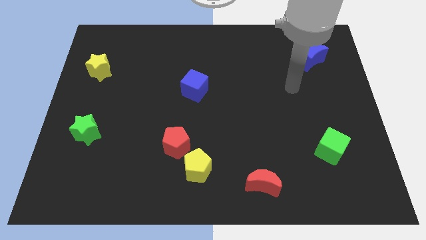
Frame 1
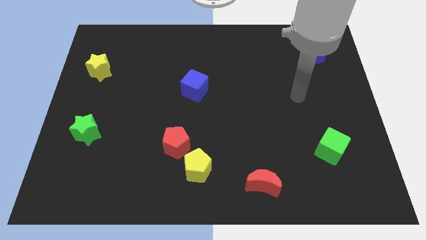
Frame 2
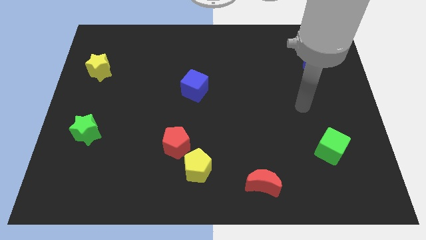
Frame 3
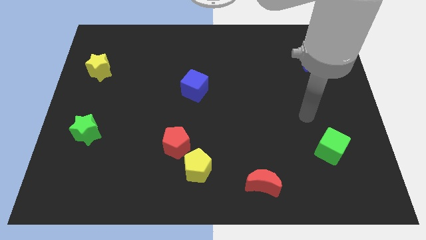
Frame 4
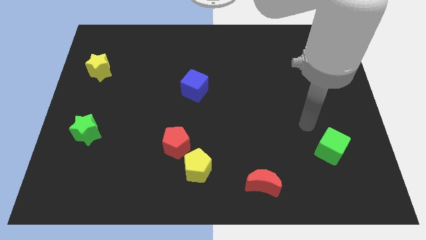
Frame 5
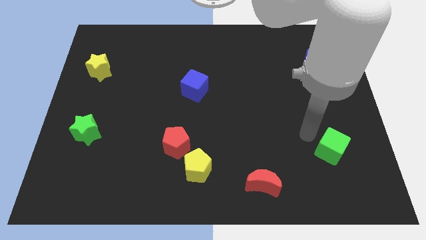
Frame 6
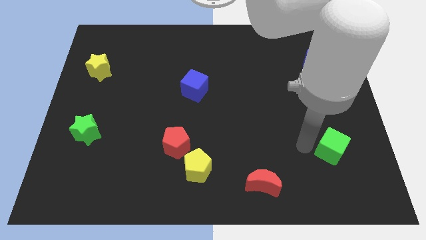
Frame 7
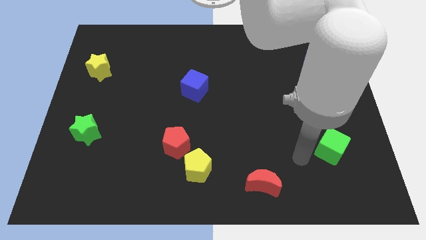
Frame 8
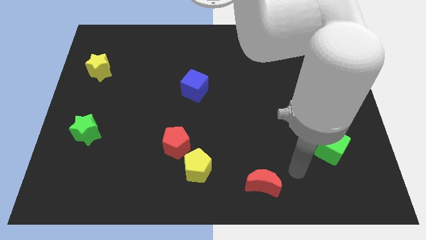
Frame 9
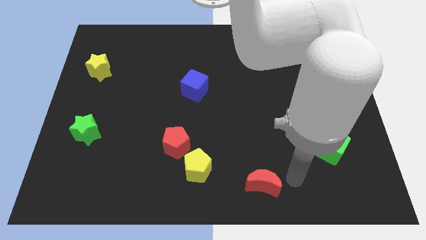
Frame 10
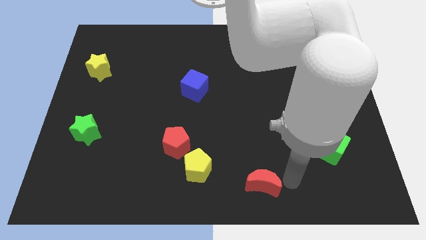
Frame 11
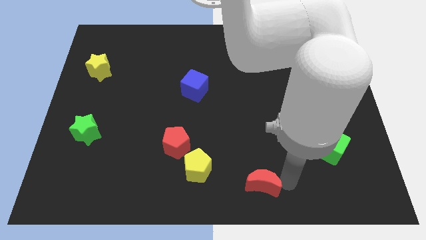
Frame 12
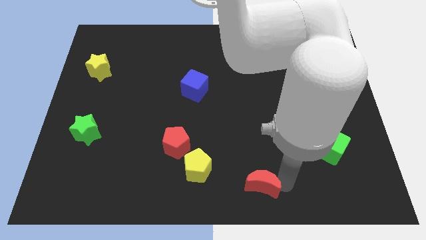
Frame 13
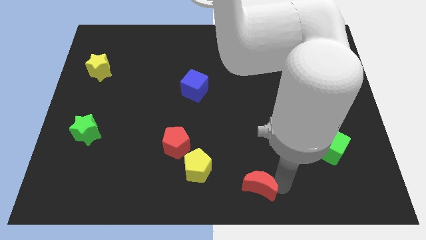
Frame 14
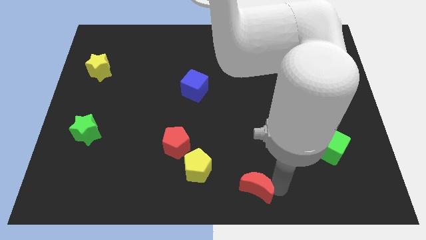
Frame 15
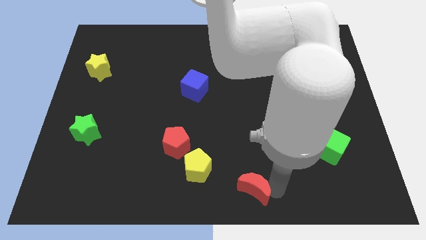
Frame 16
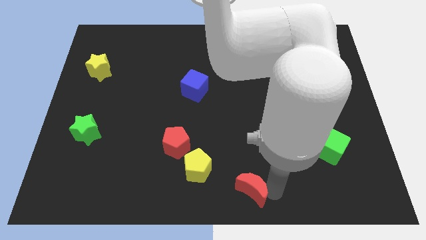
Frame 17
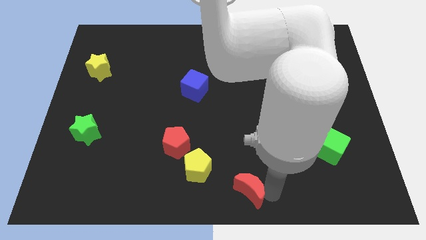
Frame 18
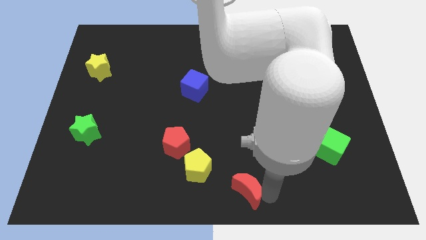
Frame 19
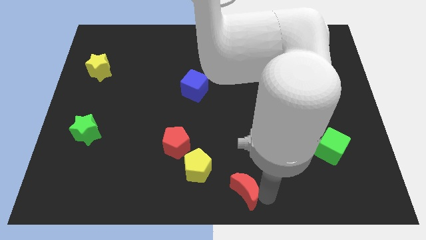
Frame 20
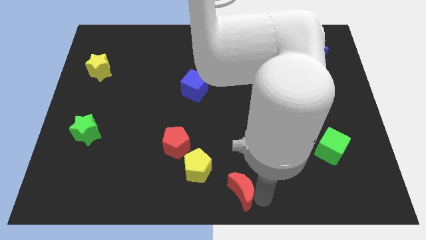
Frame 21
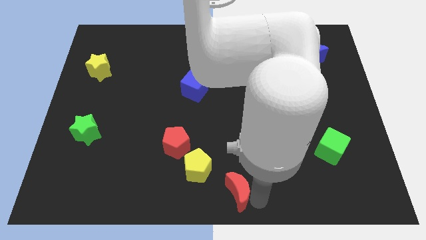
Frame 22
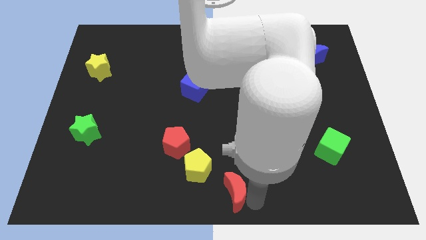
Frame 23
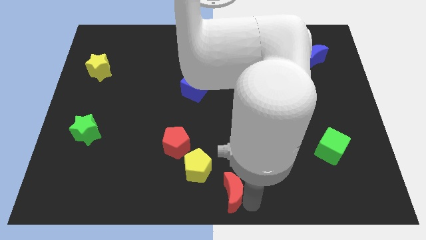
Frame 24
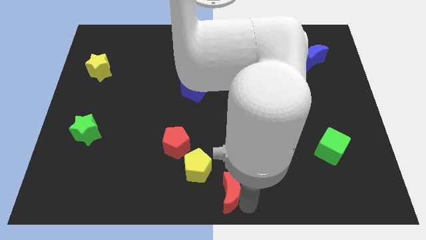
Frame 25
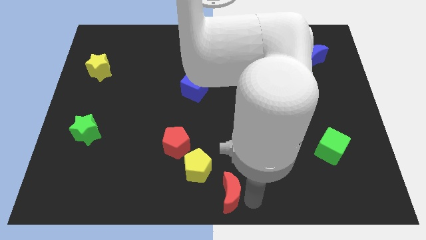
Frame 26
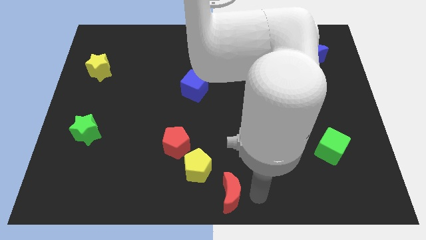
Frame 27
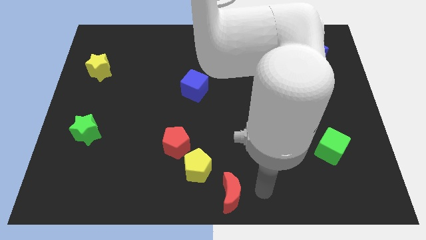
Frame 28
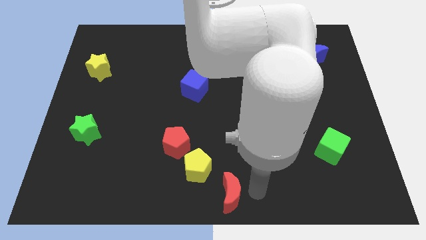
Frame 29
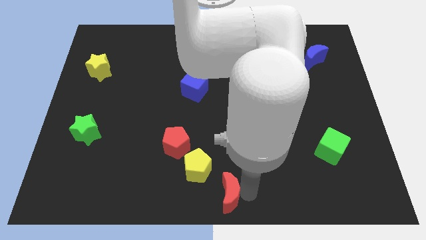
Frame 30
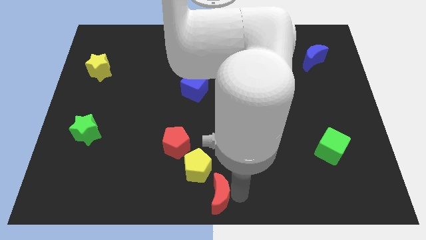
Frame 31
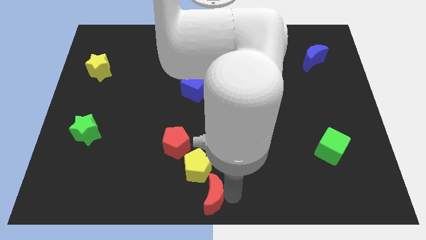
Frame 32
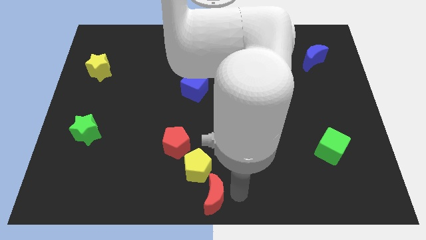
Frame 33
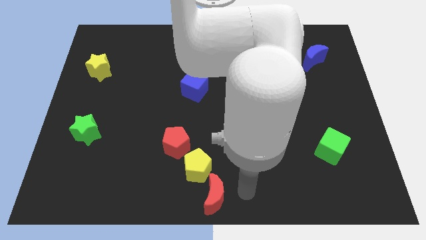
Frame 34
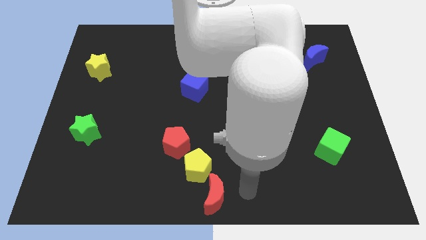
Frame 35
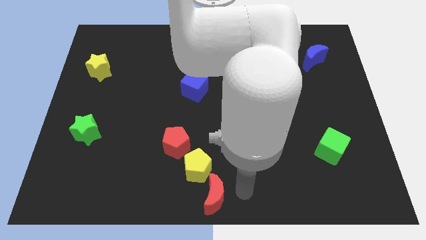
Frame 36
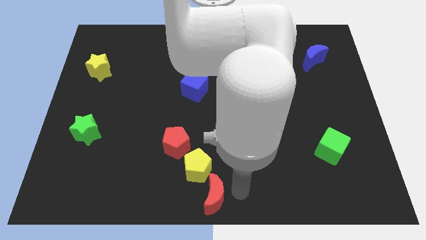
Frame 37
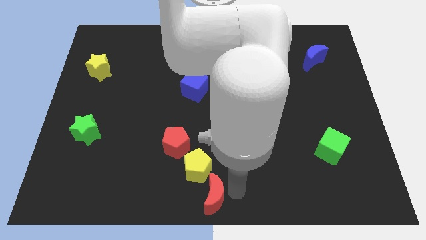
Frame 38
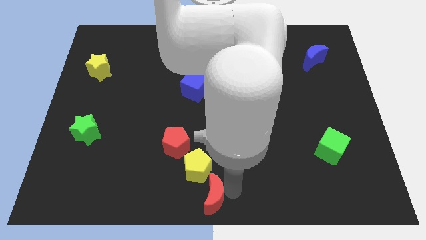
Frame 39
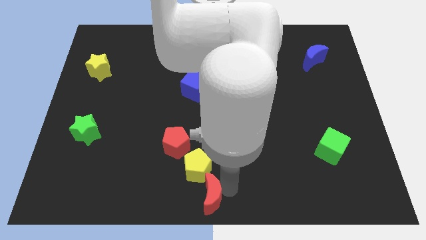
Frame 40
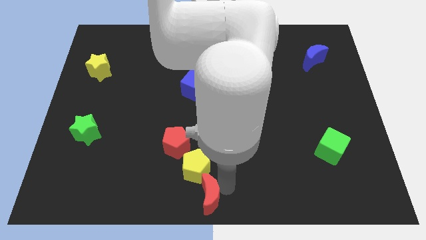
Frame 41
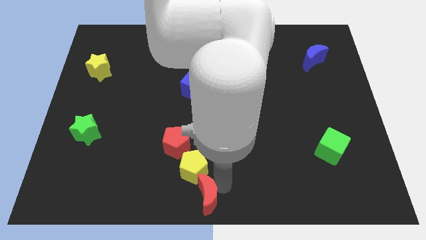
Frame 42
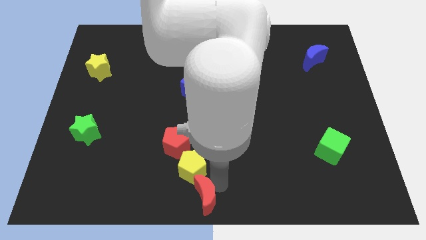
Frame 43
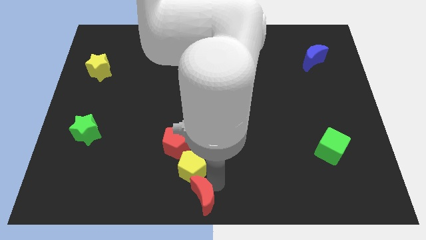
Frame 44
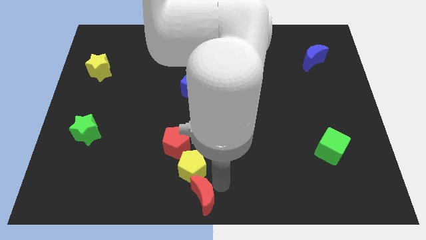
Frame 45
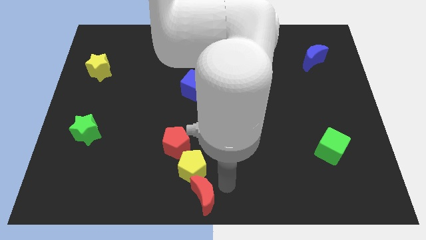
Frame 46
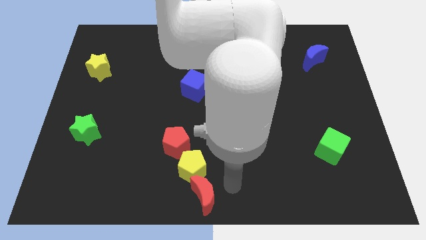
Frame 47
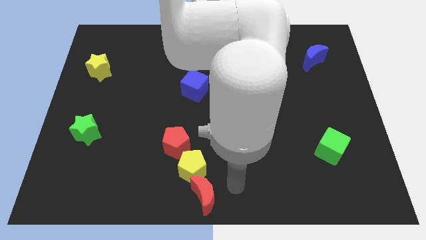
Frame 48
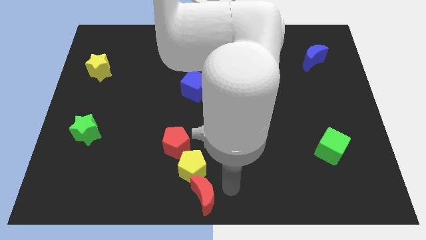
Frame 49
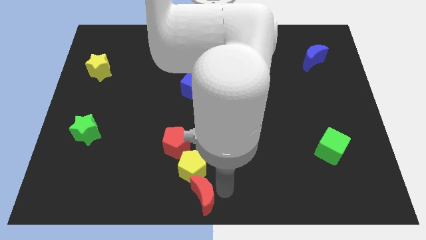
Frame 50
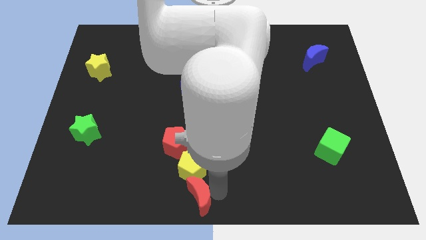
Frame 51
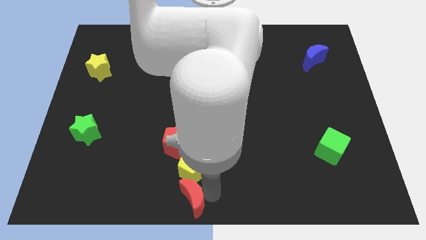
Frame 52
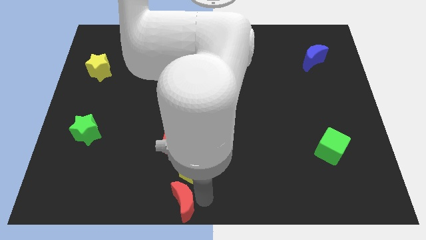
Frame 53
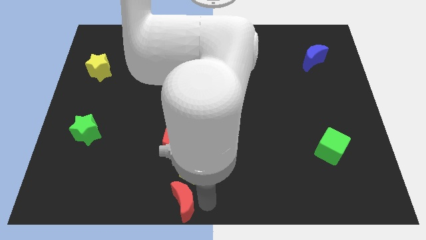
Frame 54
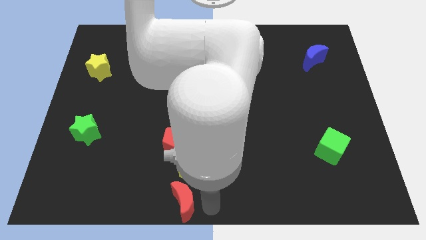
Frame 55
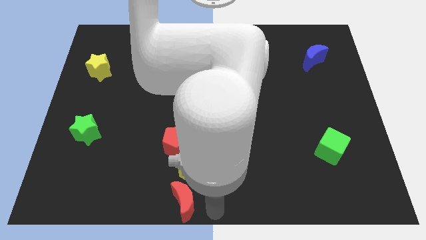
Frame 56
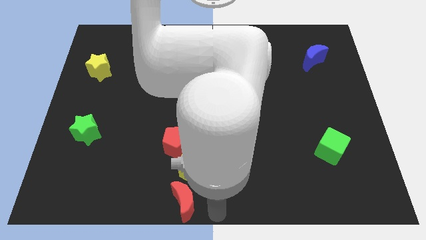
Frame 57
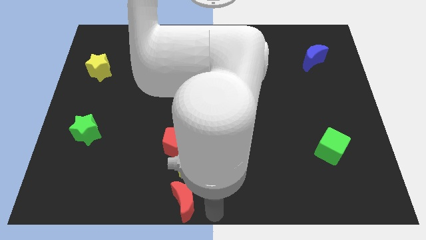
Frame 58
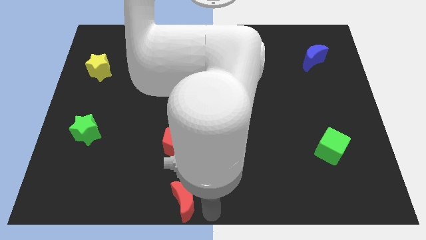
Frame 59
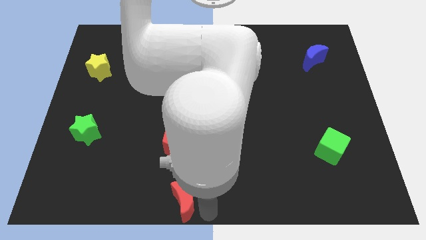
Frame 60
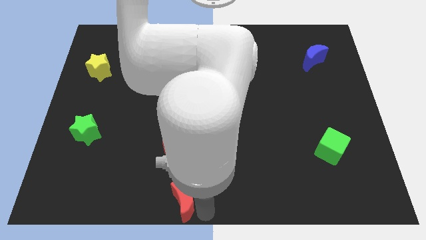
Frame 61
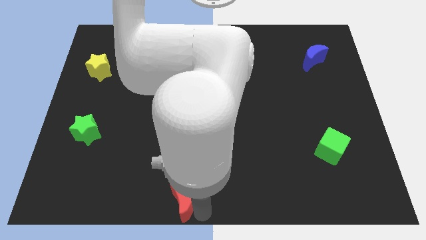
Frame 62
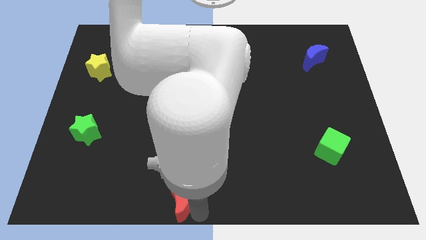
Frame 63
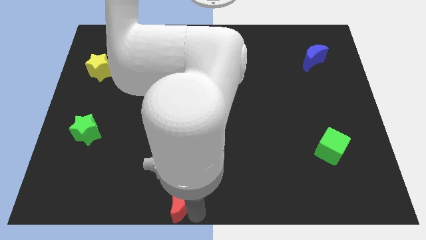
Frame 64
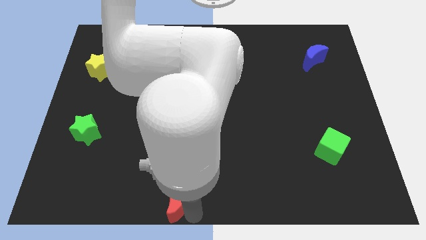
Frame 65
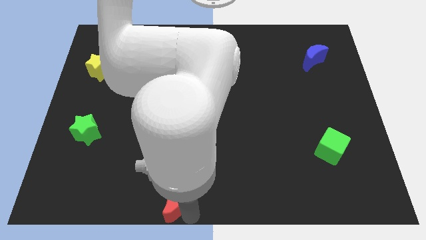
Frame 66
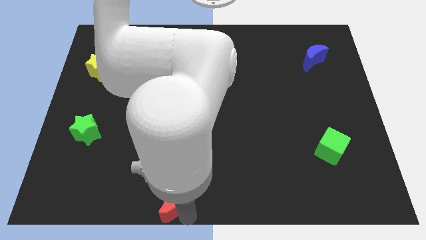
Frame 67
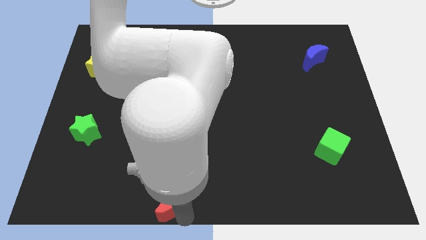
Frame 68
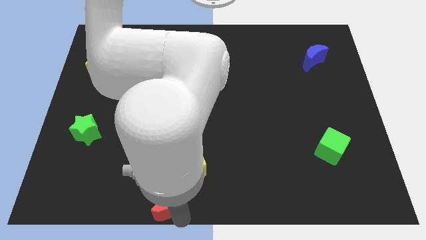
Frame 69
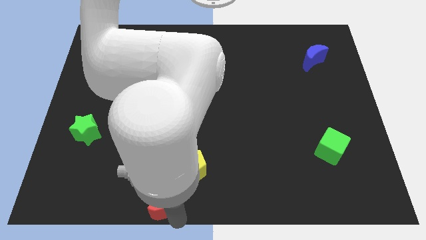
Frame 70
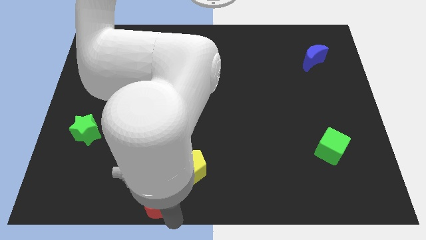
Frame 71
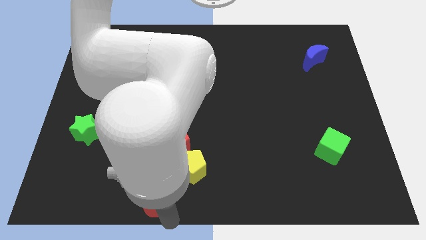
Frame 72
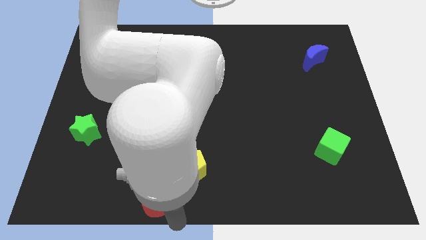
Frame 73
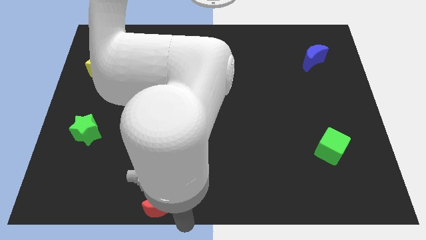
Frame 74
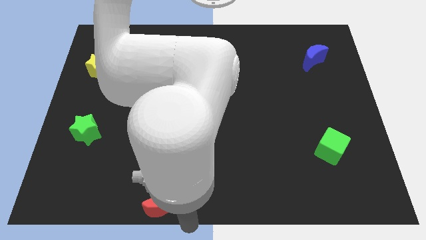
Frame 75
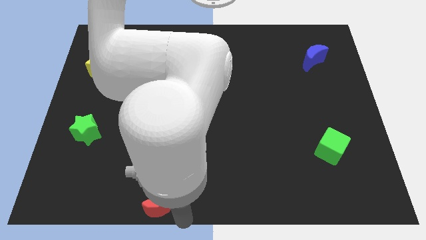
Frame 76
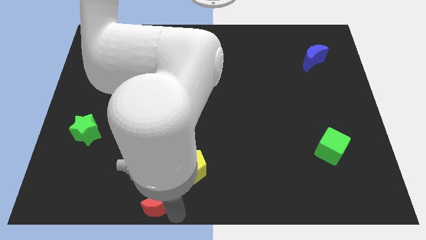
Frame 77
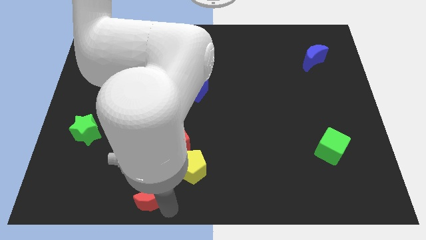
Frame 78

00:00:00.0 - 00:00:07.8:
slide the red moon left
